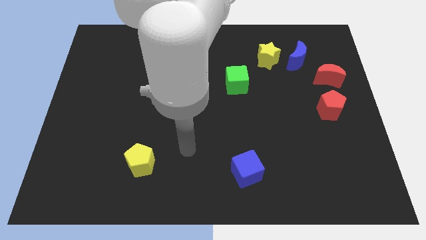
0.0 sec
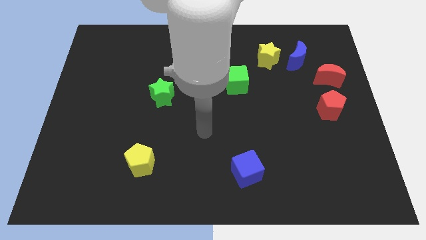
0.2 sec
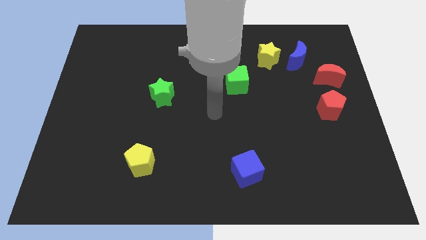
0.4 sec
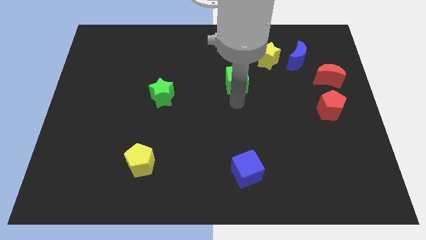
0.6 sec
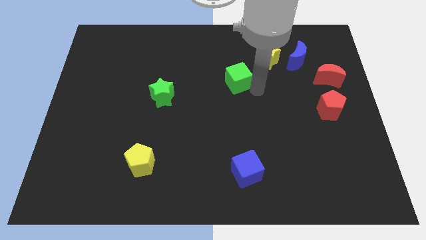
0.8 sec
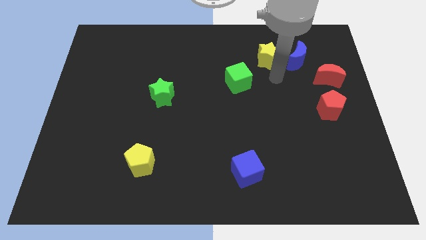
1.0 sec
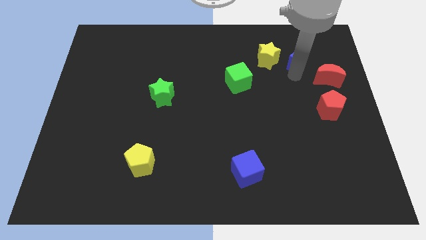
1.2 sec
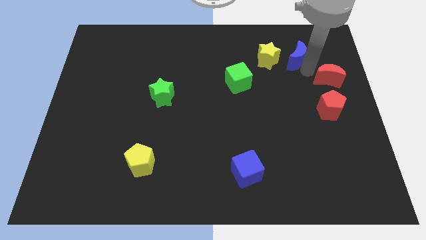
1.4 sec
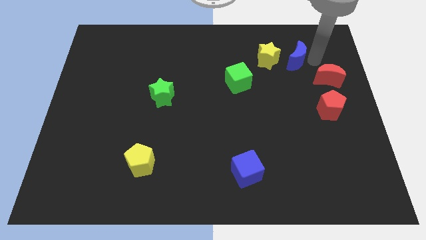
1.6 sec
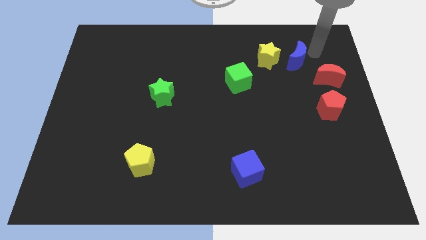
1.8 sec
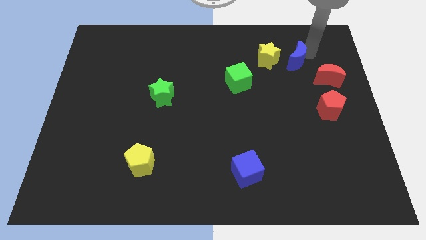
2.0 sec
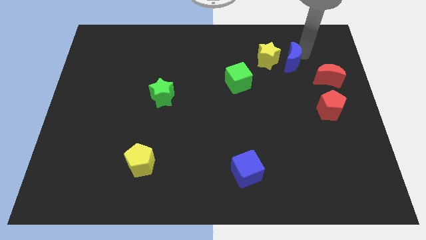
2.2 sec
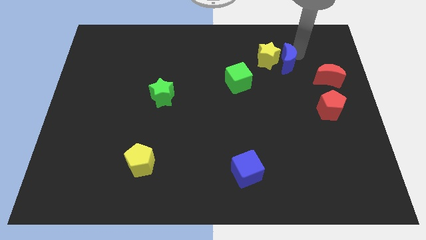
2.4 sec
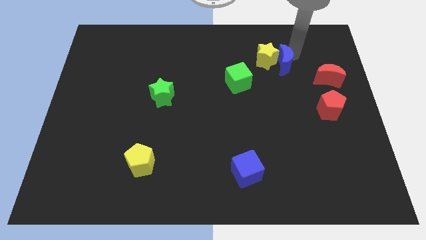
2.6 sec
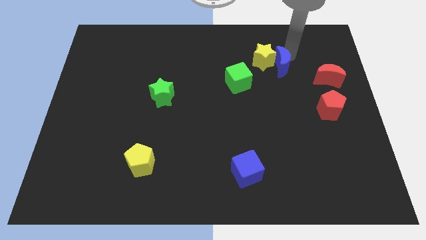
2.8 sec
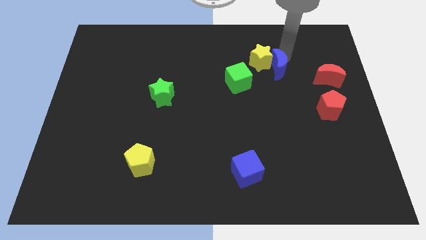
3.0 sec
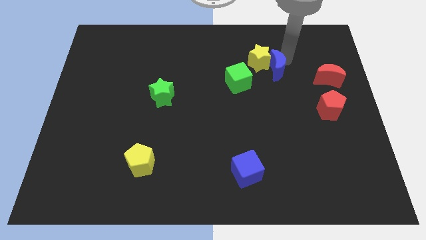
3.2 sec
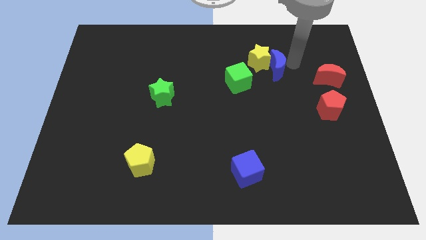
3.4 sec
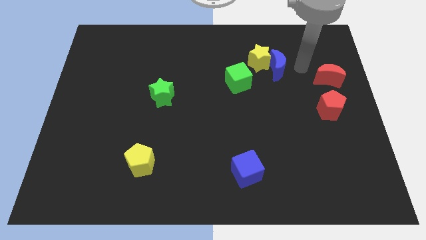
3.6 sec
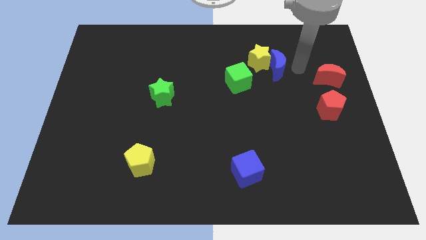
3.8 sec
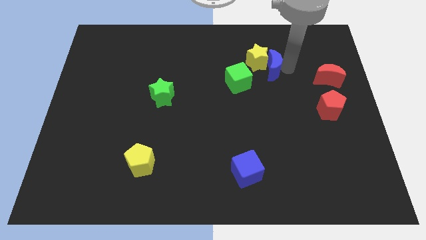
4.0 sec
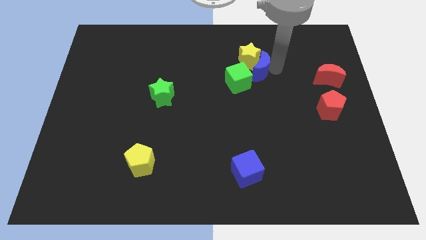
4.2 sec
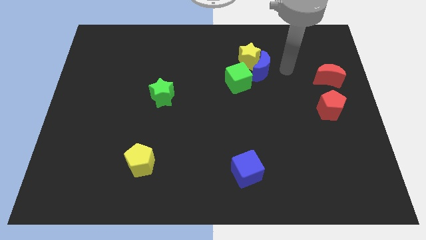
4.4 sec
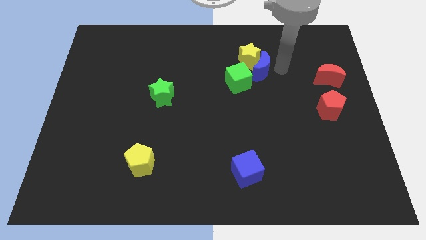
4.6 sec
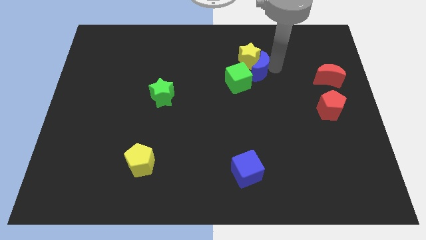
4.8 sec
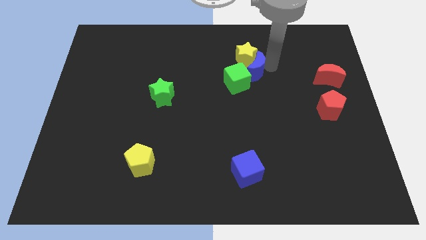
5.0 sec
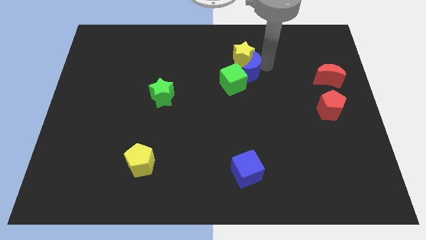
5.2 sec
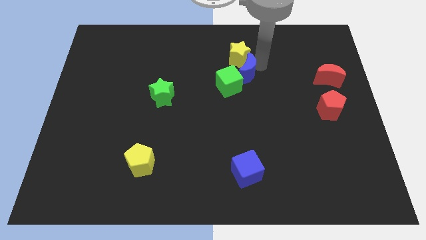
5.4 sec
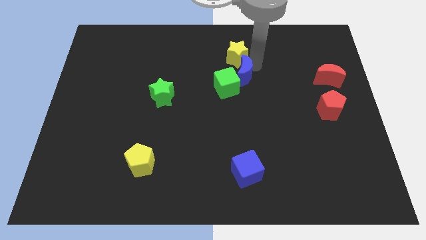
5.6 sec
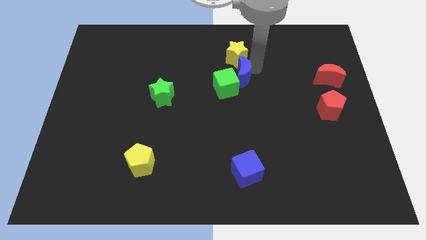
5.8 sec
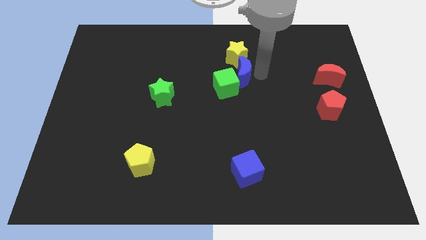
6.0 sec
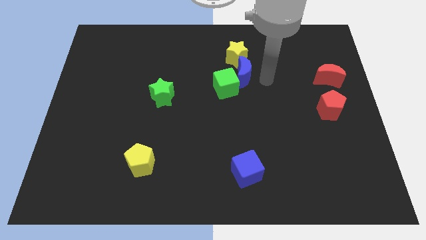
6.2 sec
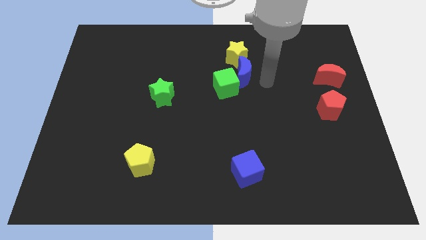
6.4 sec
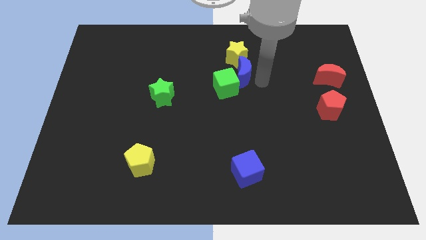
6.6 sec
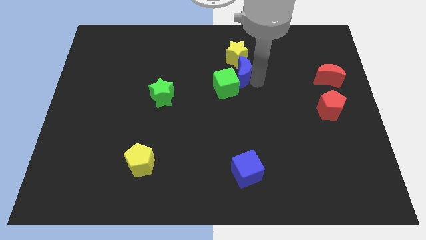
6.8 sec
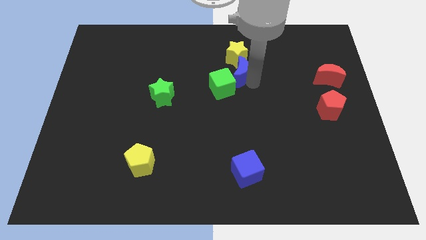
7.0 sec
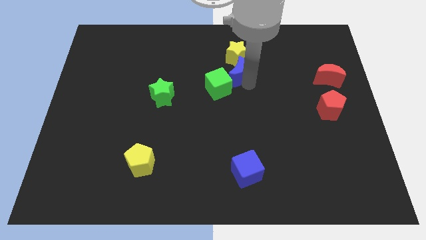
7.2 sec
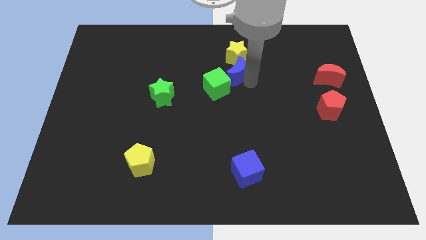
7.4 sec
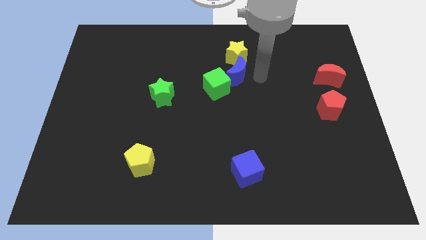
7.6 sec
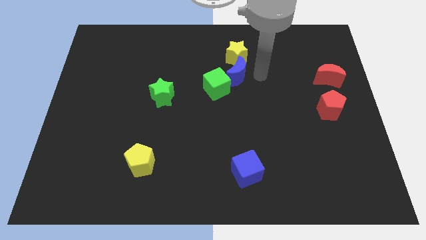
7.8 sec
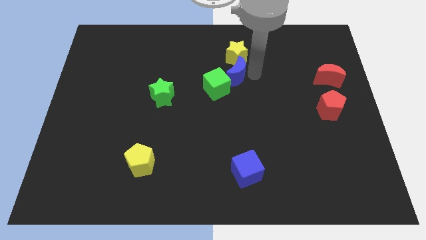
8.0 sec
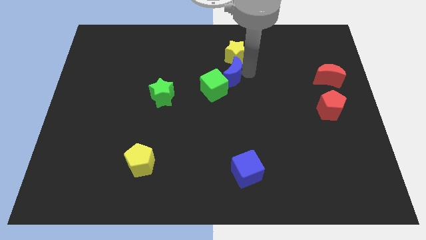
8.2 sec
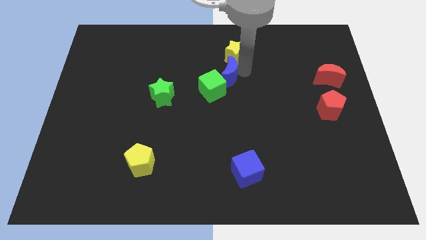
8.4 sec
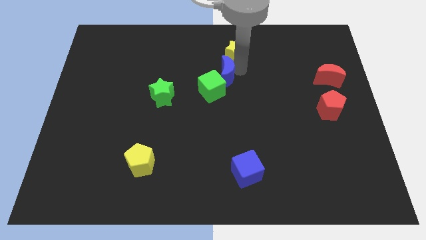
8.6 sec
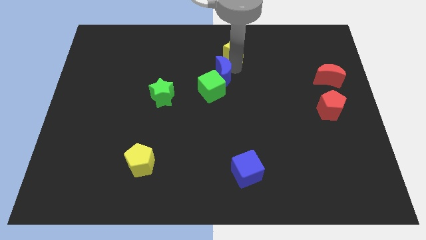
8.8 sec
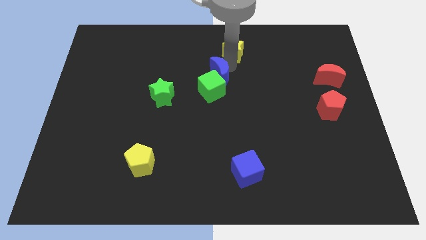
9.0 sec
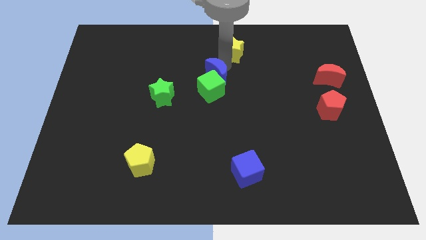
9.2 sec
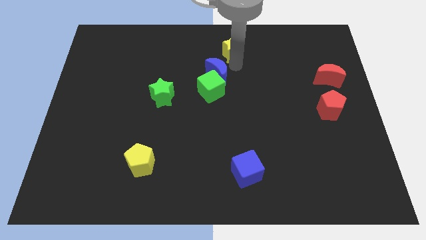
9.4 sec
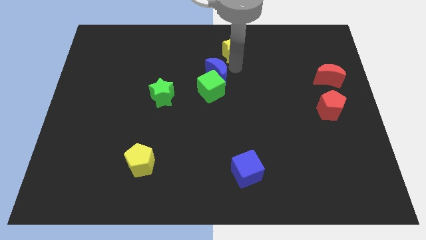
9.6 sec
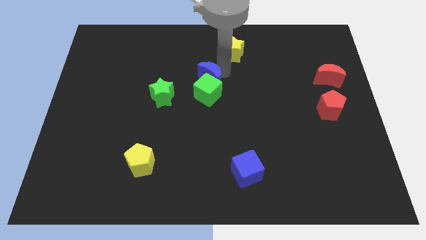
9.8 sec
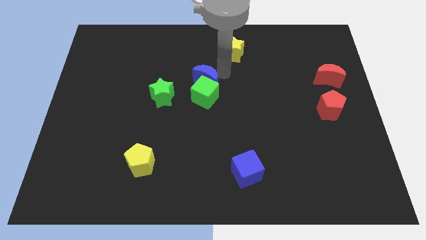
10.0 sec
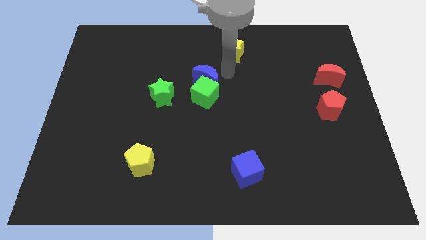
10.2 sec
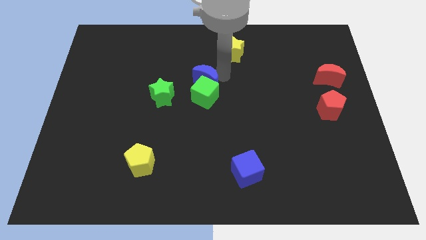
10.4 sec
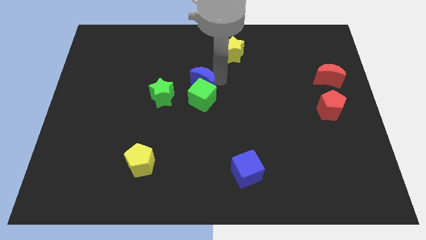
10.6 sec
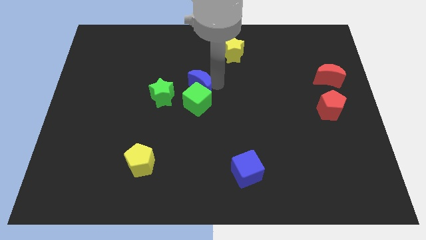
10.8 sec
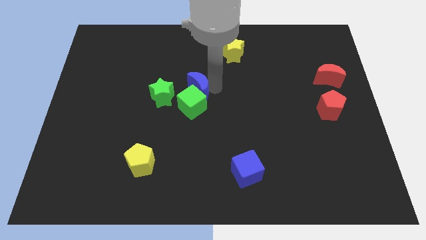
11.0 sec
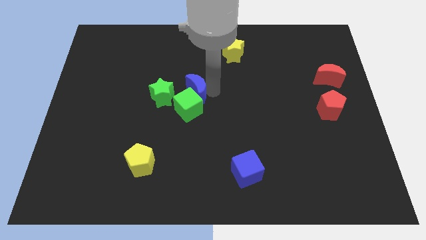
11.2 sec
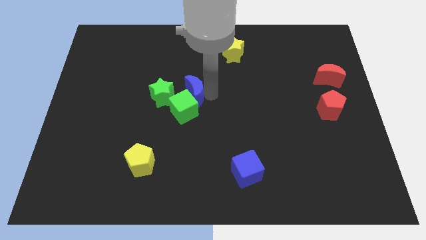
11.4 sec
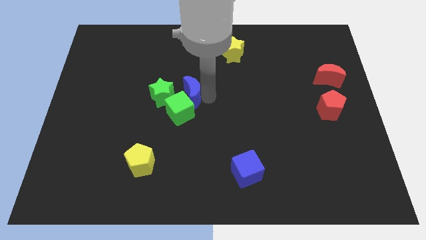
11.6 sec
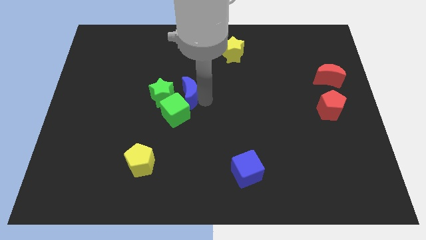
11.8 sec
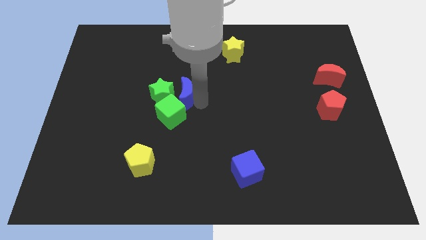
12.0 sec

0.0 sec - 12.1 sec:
slide the blue moon towards the green star

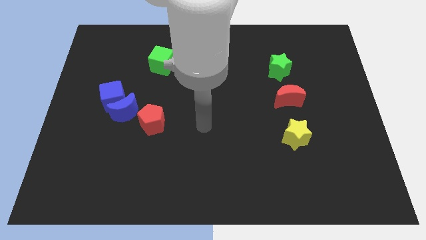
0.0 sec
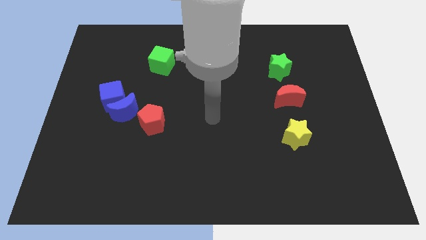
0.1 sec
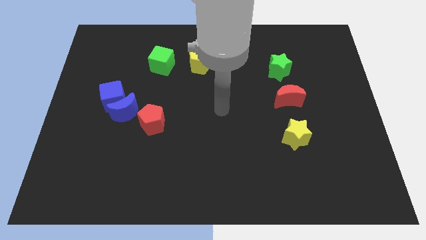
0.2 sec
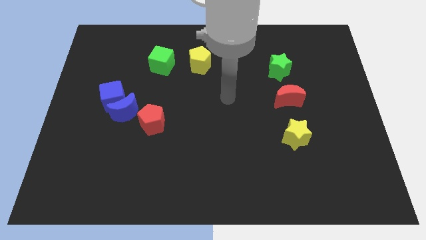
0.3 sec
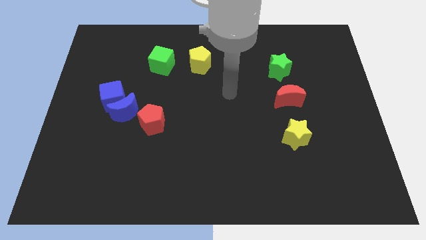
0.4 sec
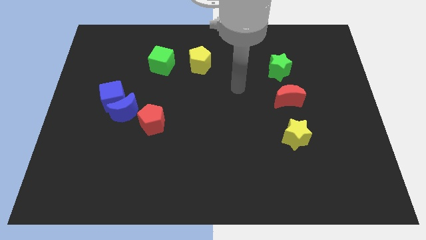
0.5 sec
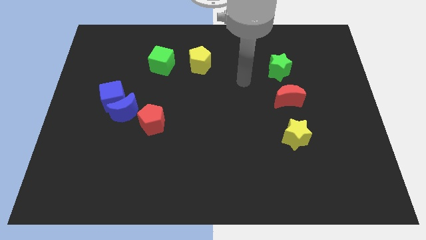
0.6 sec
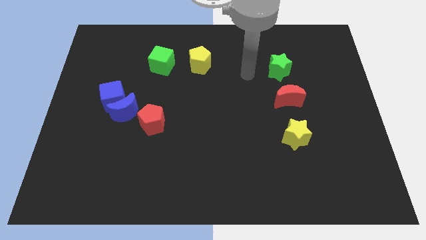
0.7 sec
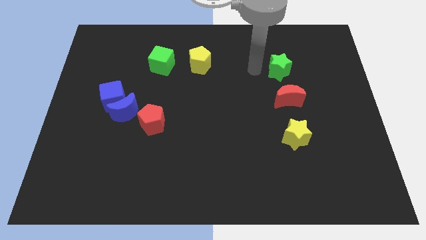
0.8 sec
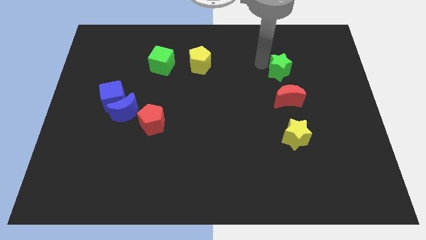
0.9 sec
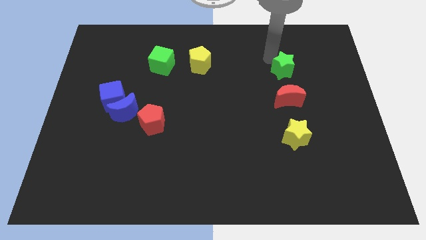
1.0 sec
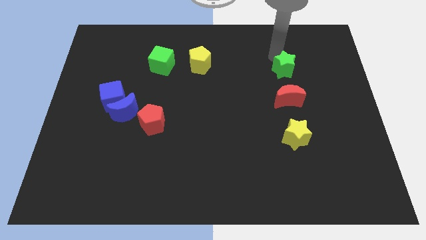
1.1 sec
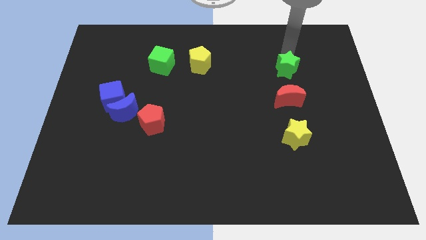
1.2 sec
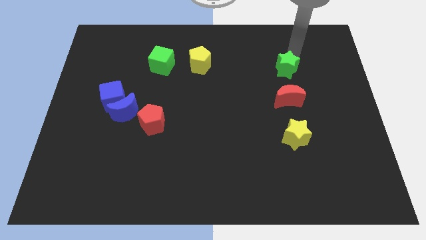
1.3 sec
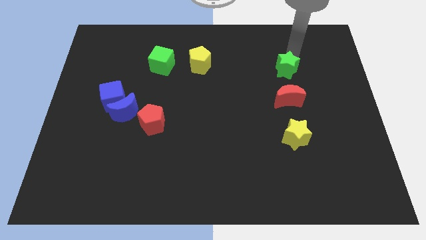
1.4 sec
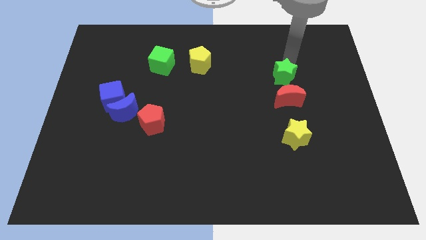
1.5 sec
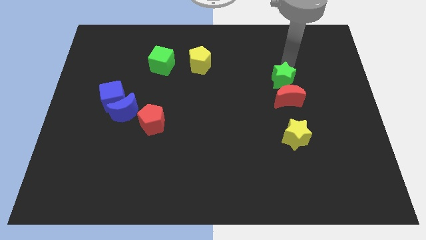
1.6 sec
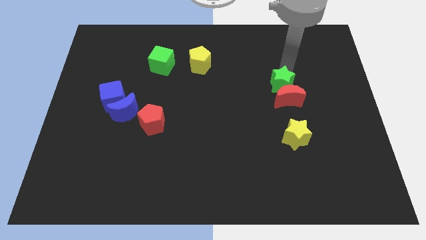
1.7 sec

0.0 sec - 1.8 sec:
push the green star close to the red moon
